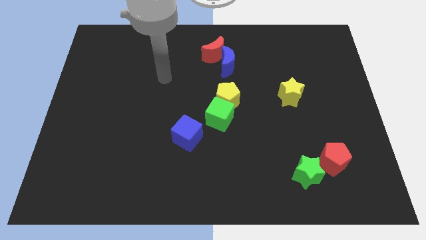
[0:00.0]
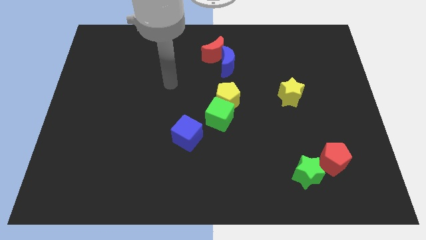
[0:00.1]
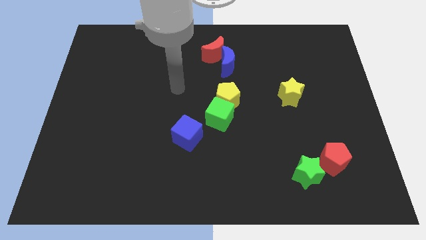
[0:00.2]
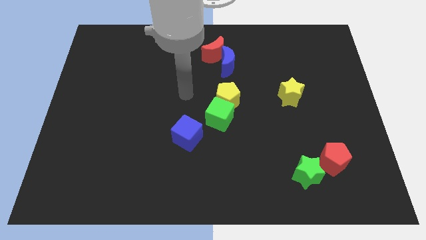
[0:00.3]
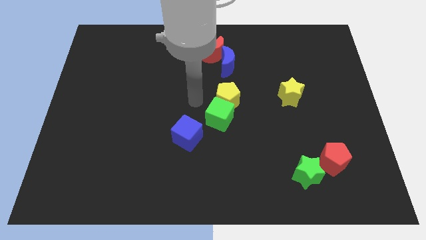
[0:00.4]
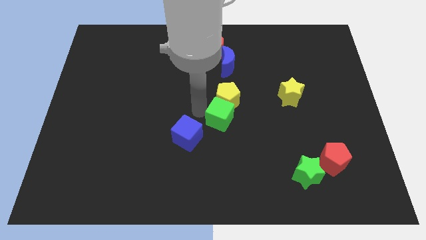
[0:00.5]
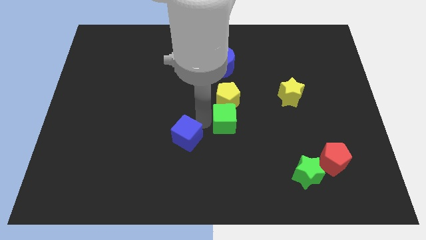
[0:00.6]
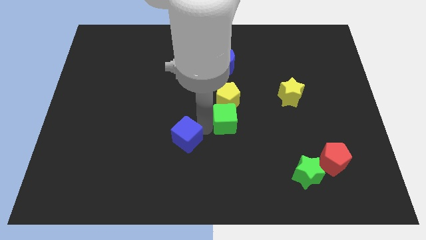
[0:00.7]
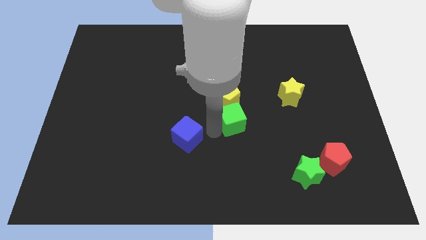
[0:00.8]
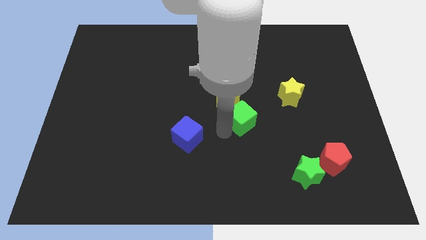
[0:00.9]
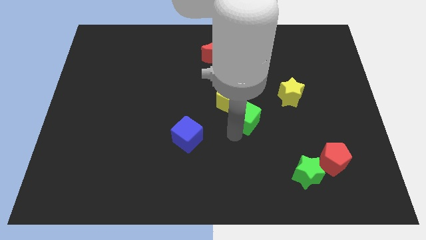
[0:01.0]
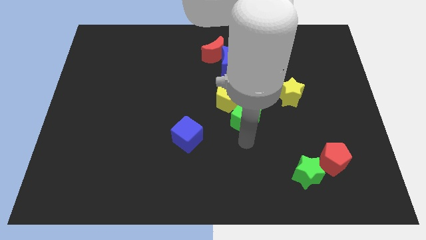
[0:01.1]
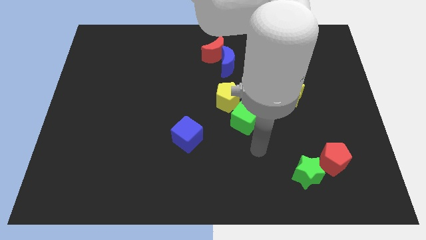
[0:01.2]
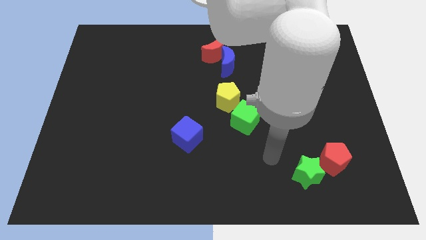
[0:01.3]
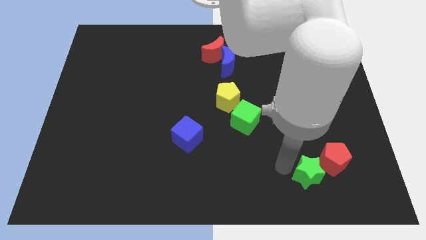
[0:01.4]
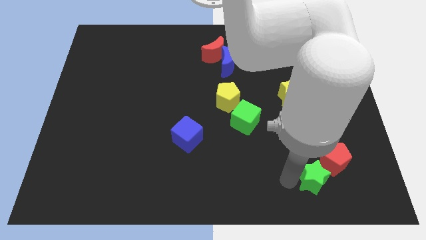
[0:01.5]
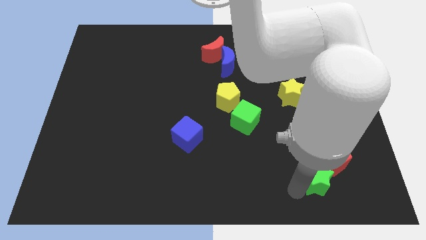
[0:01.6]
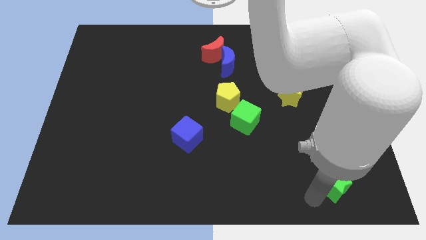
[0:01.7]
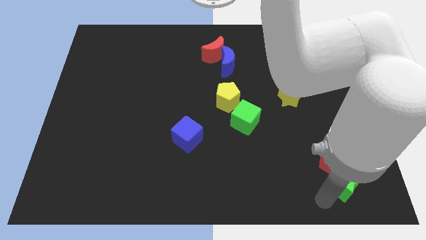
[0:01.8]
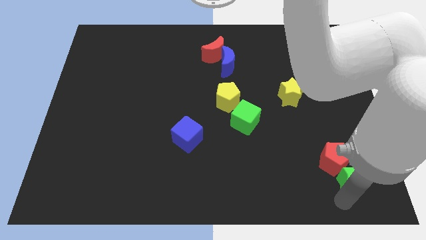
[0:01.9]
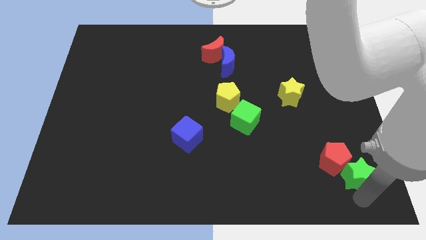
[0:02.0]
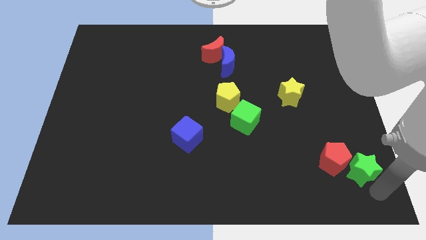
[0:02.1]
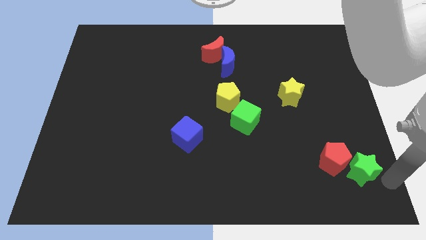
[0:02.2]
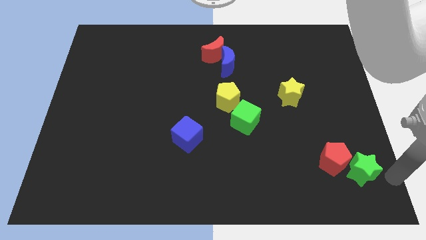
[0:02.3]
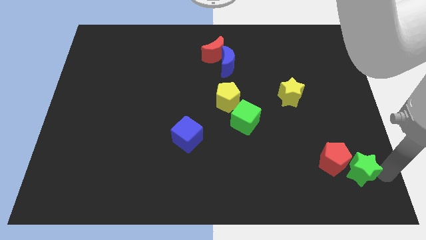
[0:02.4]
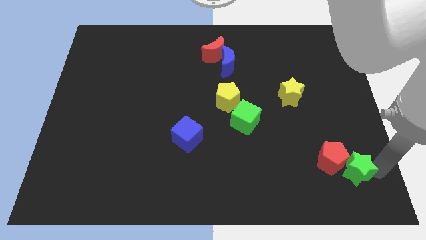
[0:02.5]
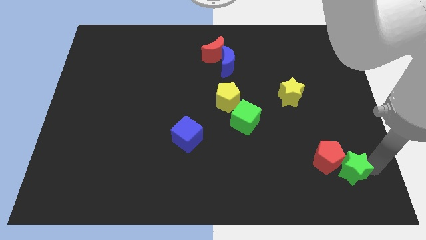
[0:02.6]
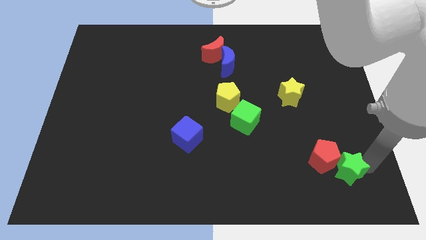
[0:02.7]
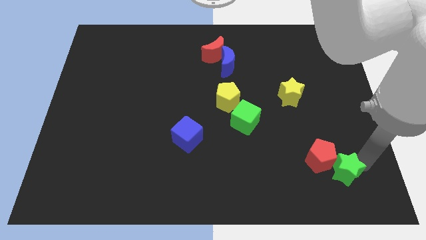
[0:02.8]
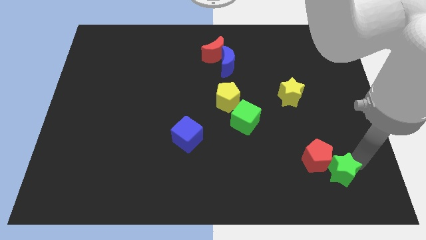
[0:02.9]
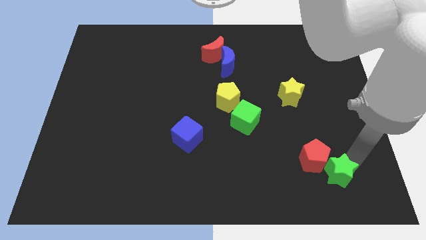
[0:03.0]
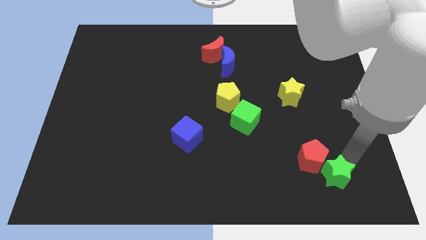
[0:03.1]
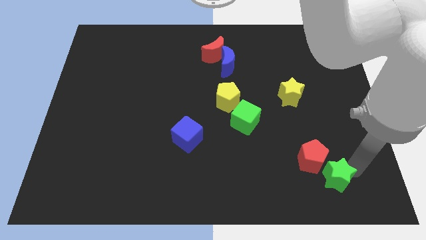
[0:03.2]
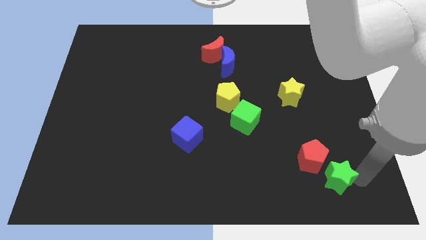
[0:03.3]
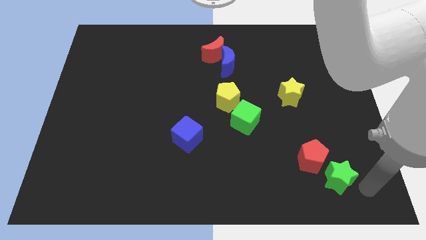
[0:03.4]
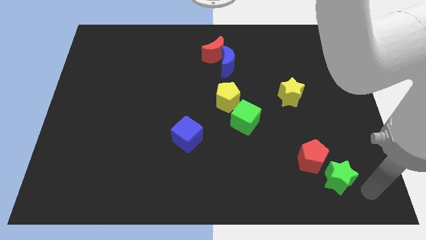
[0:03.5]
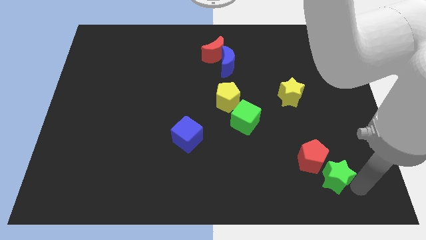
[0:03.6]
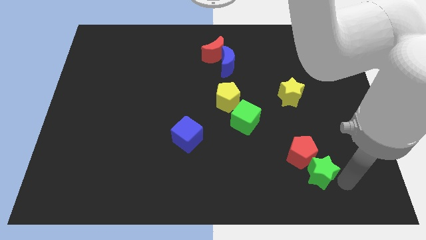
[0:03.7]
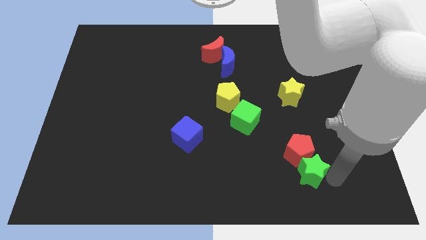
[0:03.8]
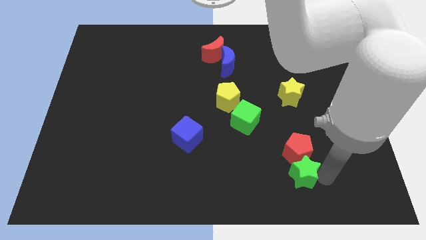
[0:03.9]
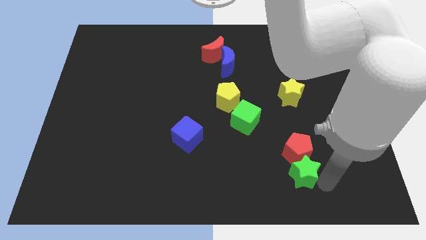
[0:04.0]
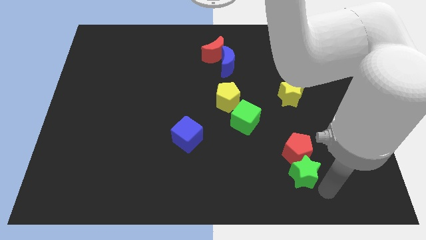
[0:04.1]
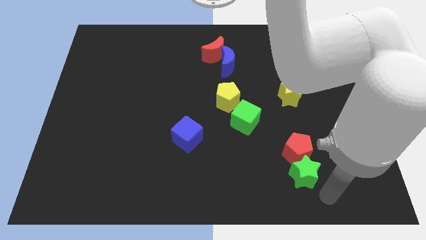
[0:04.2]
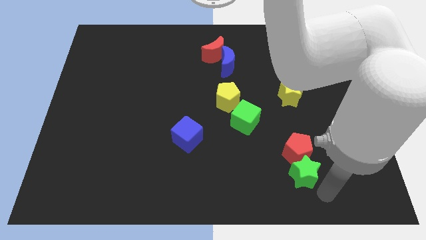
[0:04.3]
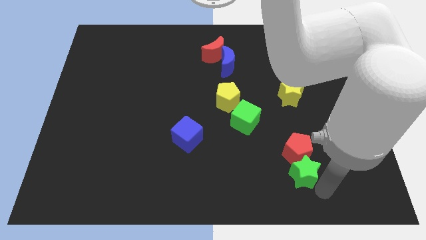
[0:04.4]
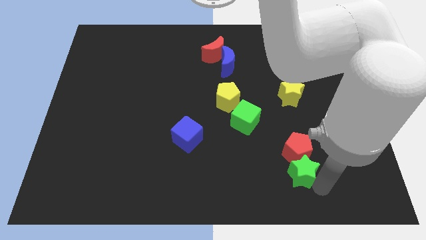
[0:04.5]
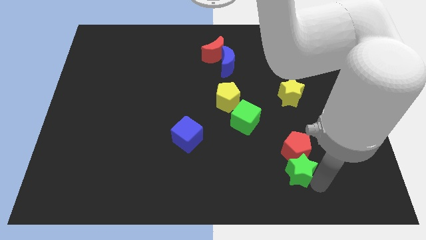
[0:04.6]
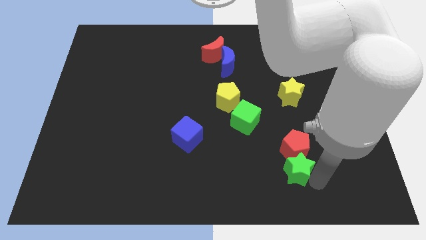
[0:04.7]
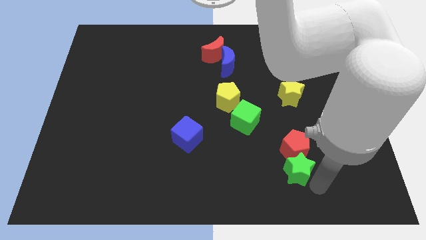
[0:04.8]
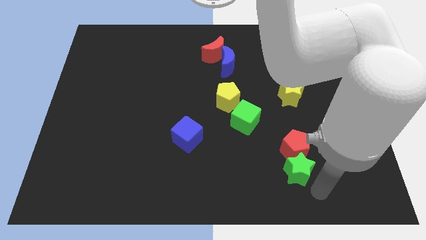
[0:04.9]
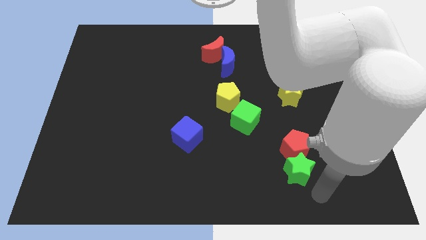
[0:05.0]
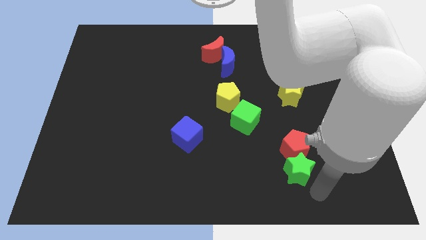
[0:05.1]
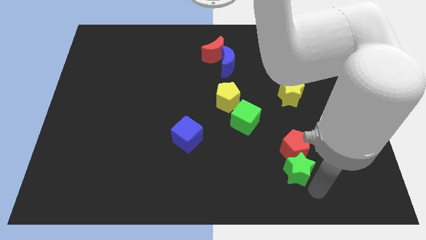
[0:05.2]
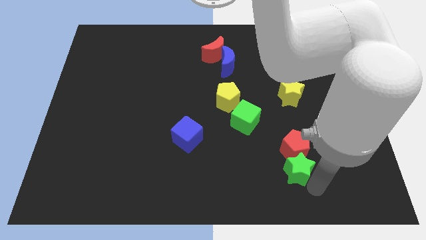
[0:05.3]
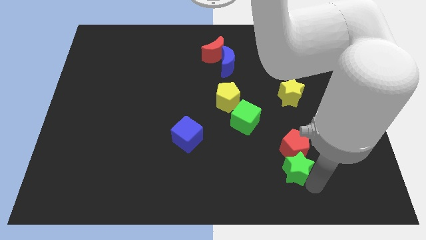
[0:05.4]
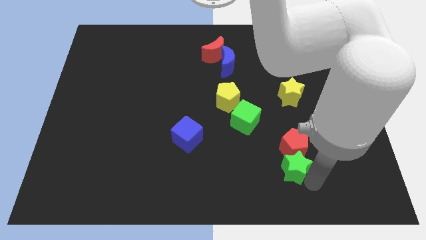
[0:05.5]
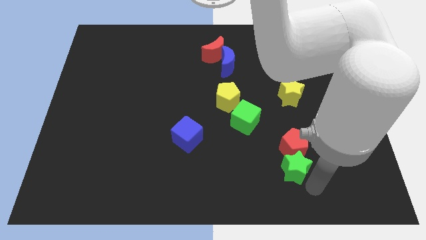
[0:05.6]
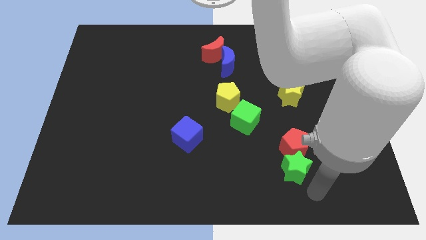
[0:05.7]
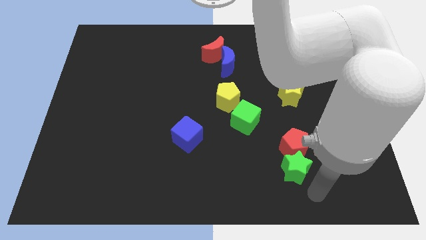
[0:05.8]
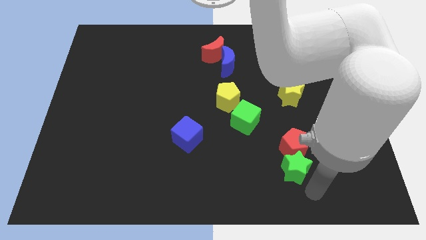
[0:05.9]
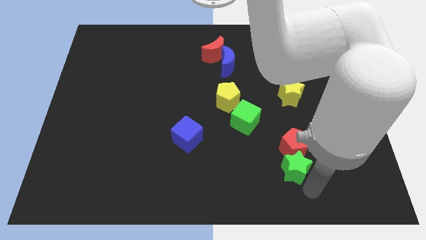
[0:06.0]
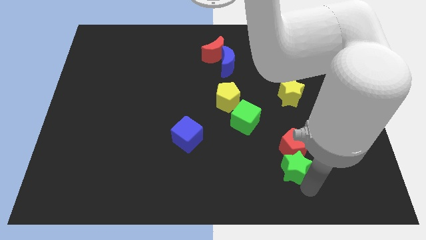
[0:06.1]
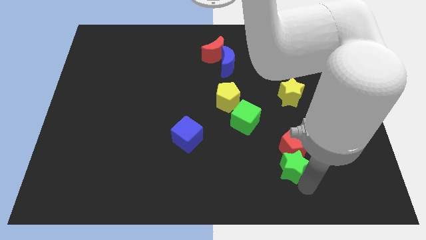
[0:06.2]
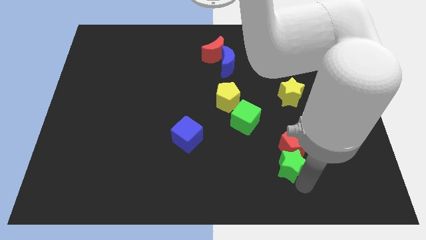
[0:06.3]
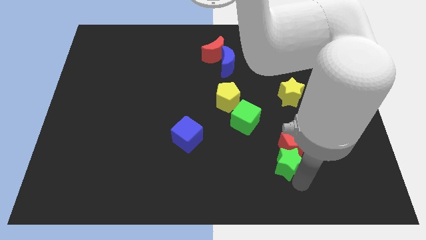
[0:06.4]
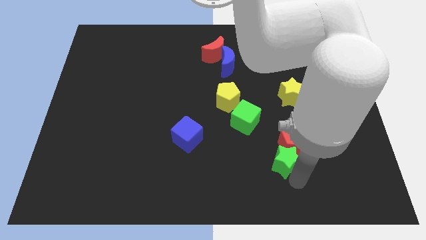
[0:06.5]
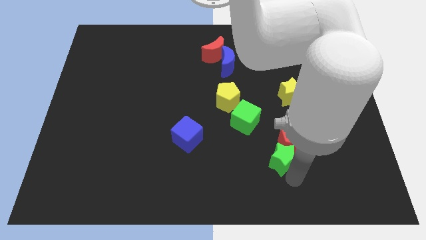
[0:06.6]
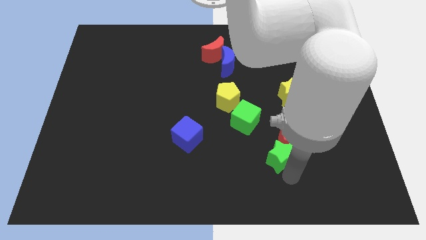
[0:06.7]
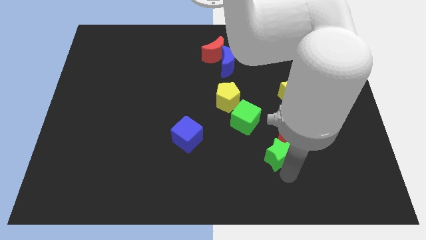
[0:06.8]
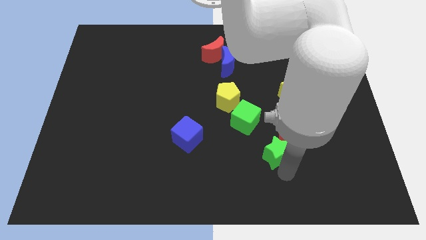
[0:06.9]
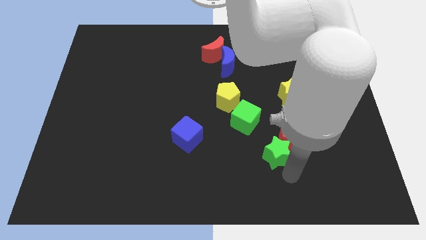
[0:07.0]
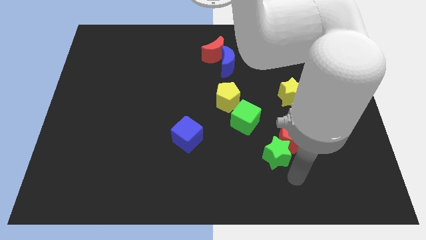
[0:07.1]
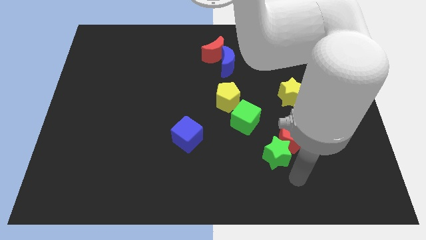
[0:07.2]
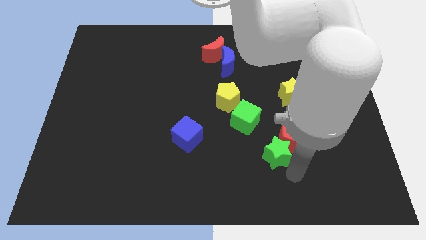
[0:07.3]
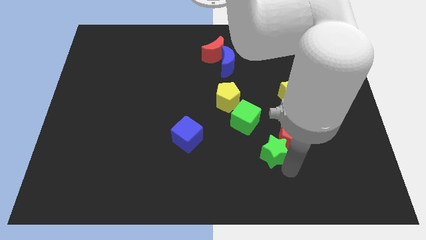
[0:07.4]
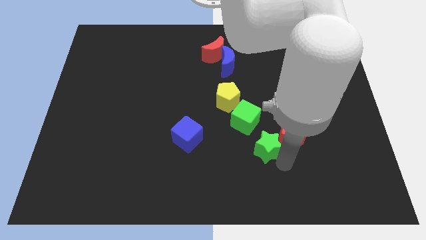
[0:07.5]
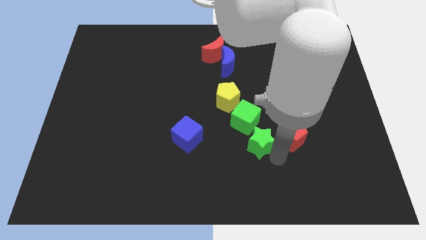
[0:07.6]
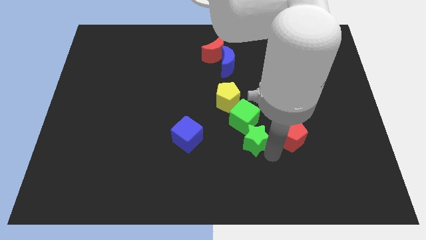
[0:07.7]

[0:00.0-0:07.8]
put the green star next to the green cube
